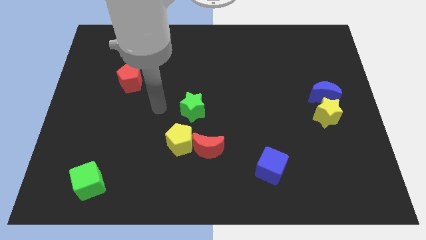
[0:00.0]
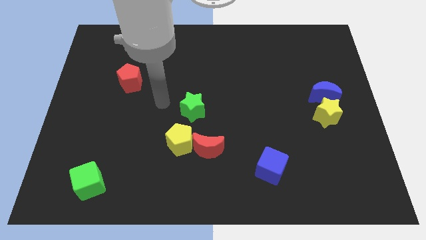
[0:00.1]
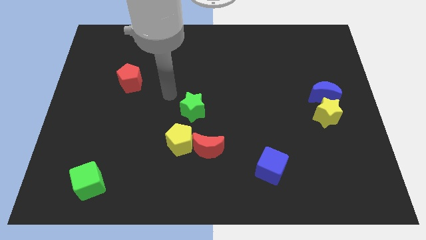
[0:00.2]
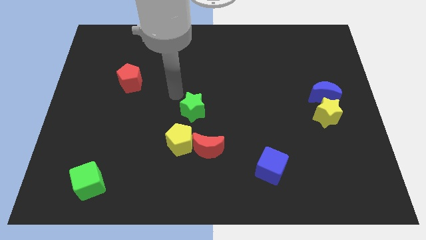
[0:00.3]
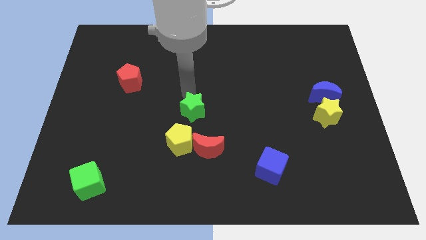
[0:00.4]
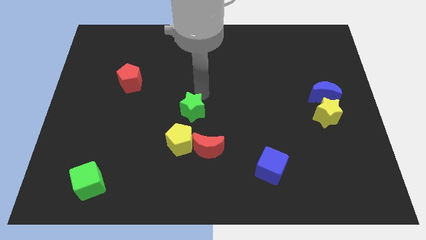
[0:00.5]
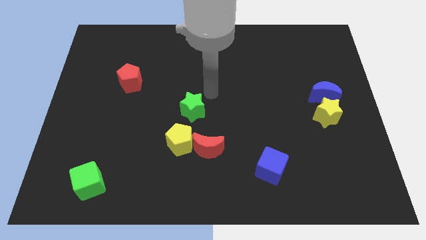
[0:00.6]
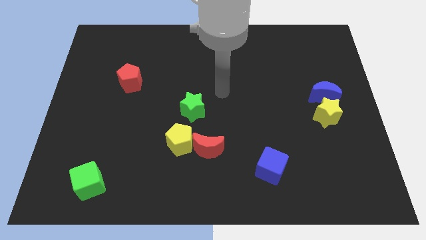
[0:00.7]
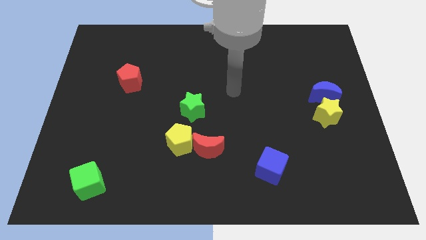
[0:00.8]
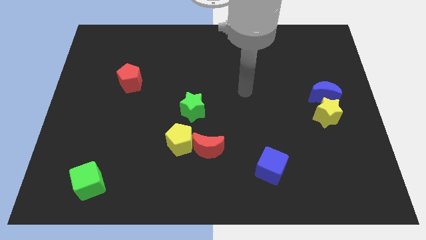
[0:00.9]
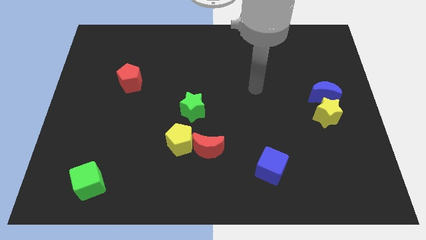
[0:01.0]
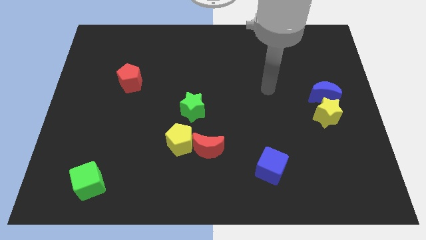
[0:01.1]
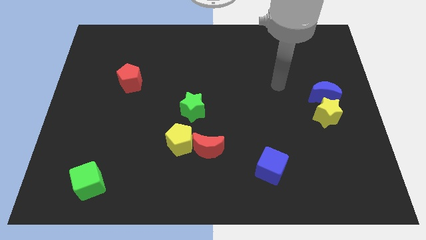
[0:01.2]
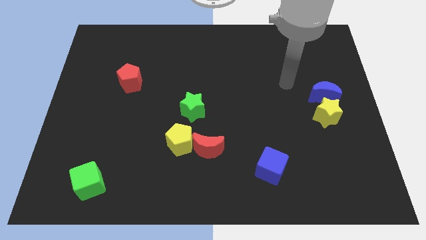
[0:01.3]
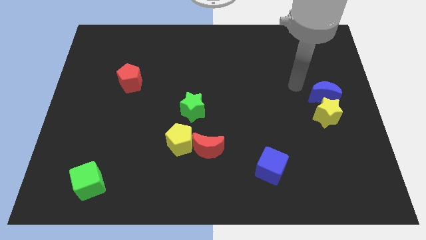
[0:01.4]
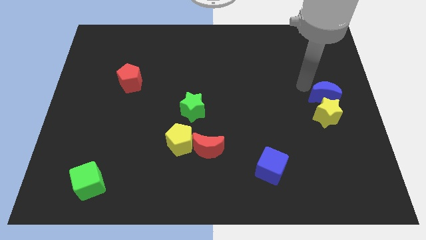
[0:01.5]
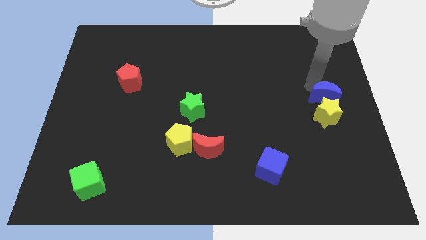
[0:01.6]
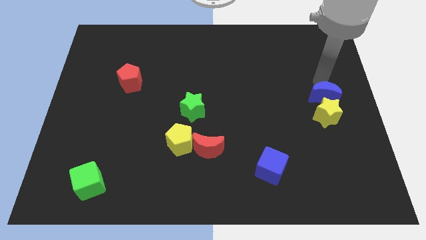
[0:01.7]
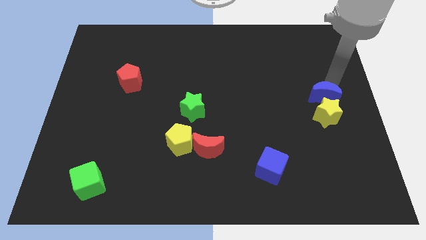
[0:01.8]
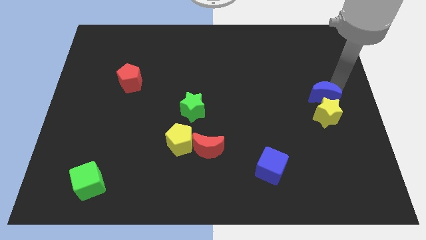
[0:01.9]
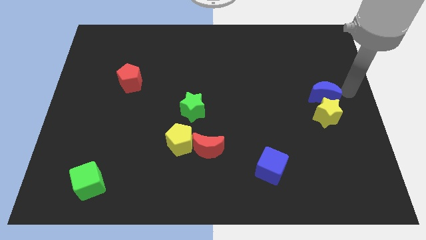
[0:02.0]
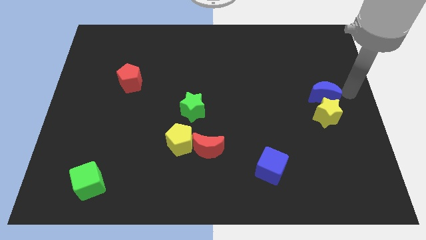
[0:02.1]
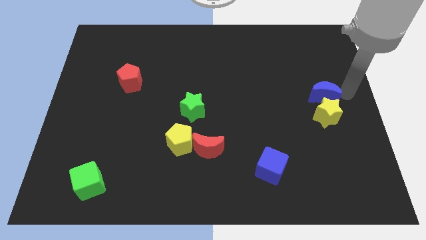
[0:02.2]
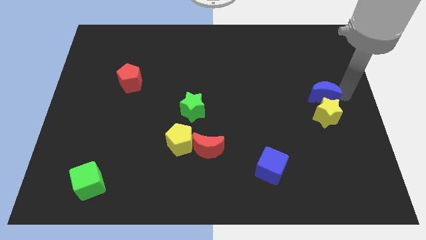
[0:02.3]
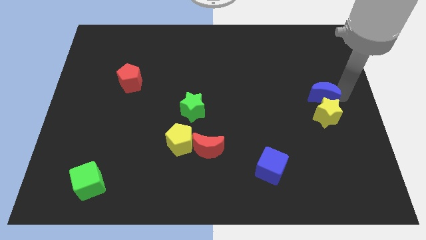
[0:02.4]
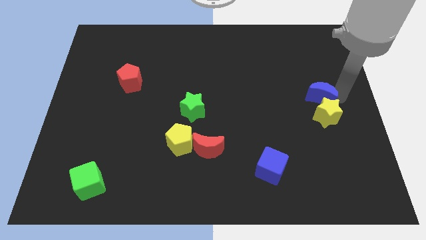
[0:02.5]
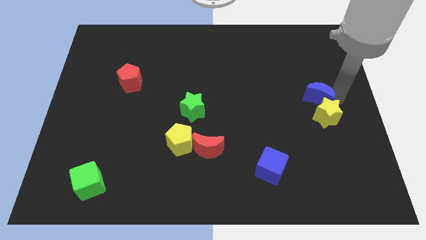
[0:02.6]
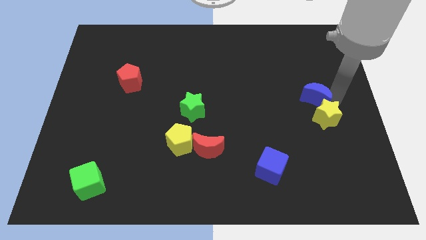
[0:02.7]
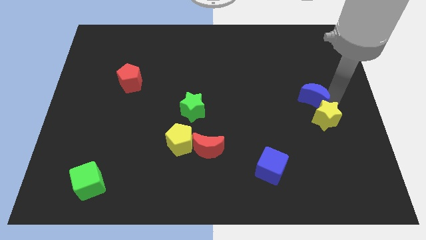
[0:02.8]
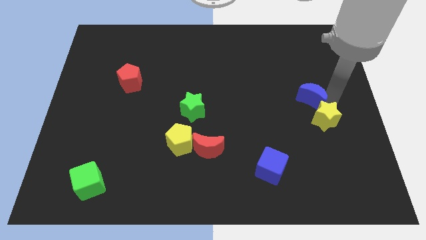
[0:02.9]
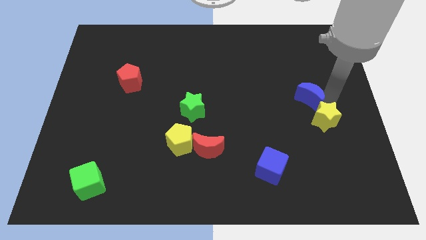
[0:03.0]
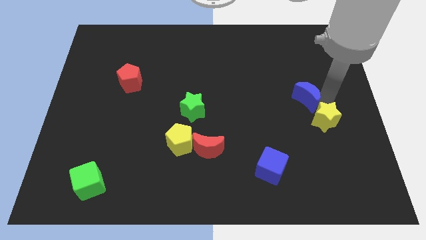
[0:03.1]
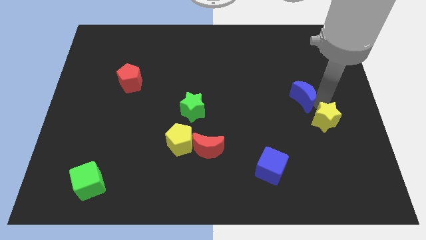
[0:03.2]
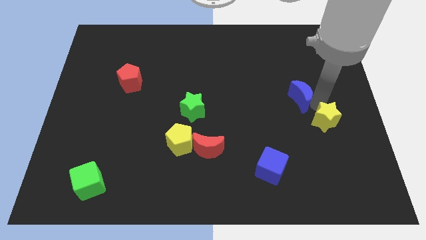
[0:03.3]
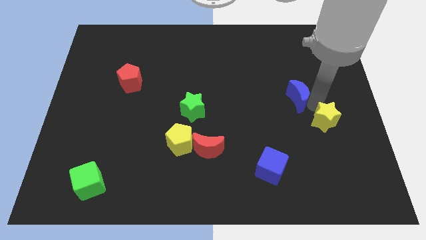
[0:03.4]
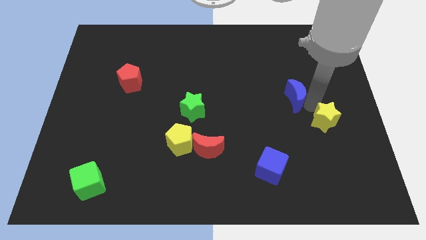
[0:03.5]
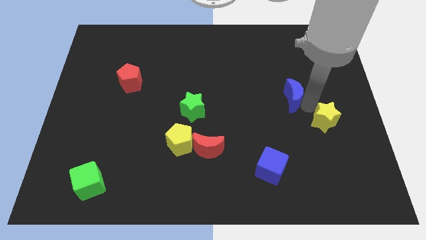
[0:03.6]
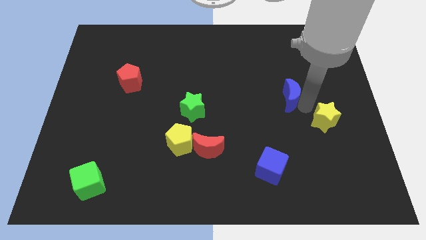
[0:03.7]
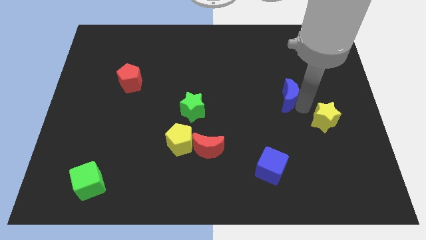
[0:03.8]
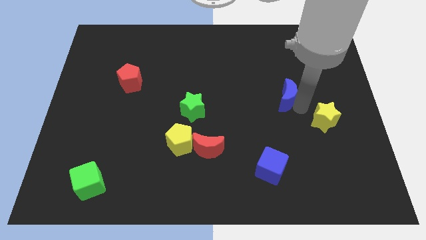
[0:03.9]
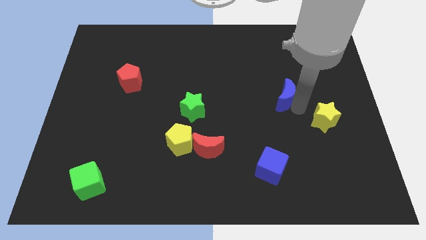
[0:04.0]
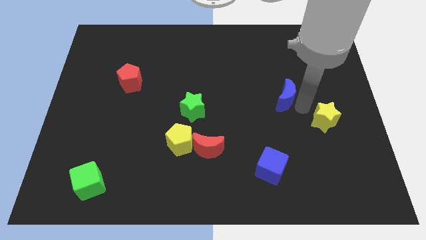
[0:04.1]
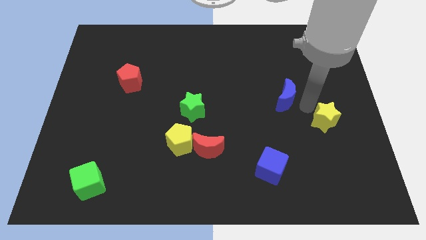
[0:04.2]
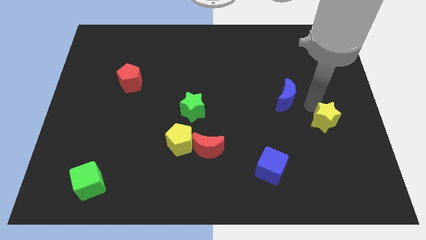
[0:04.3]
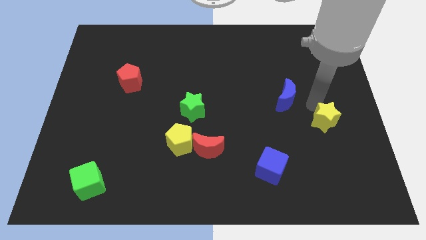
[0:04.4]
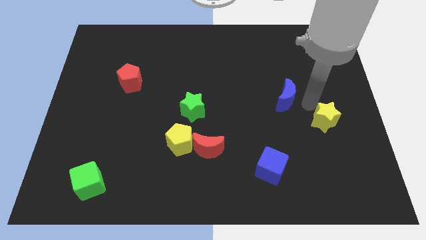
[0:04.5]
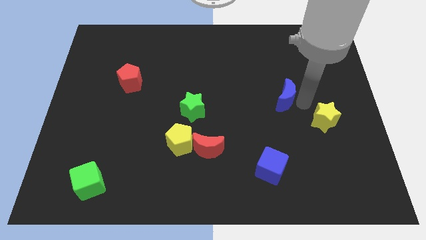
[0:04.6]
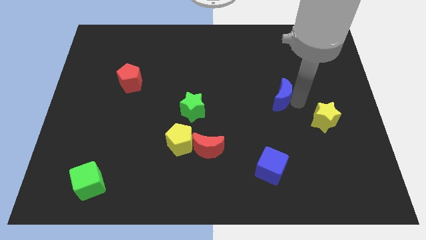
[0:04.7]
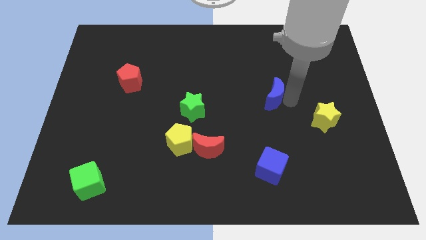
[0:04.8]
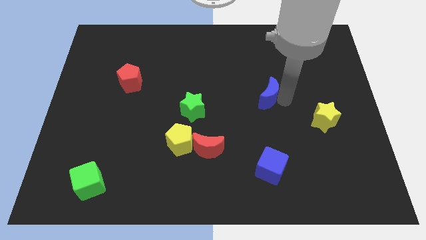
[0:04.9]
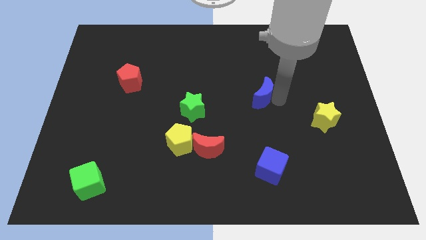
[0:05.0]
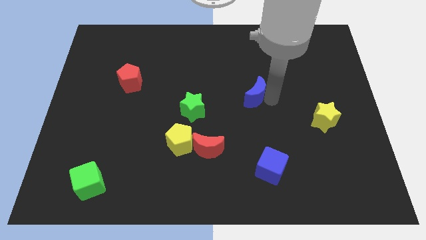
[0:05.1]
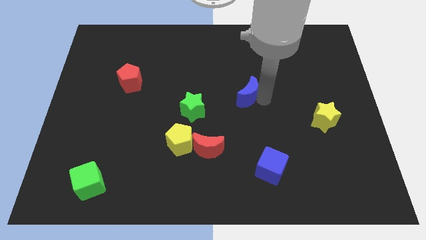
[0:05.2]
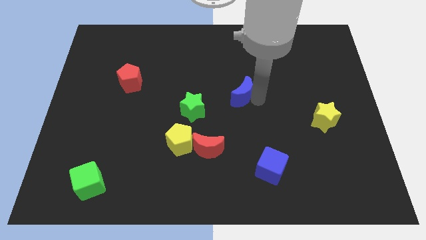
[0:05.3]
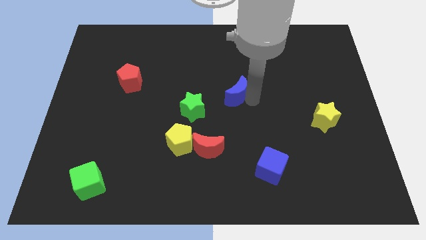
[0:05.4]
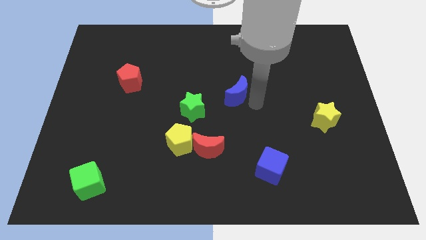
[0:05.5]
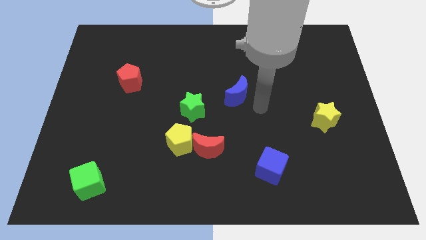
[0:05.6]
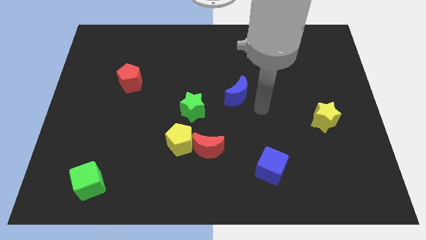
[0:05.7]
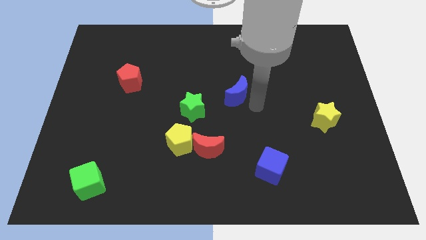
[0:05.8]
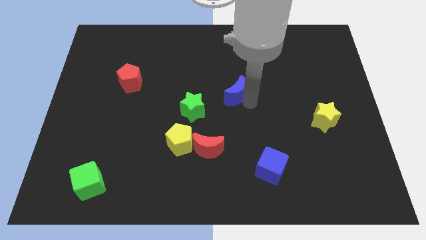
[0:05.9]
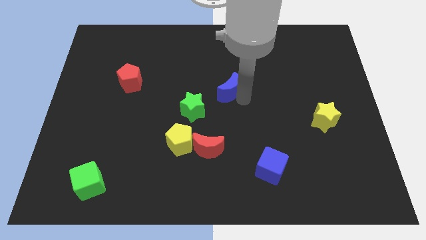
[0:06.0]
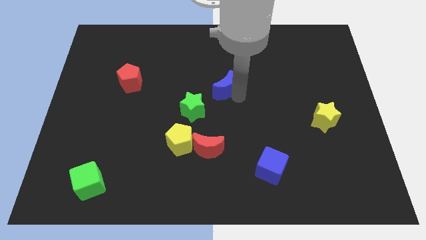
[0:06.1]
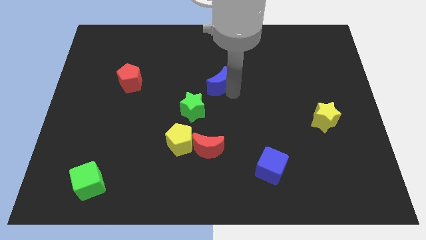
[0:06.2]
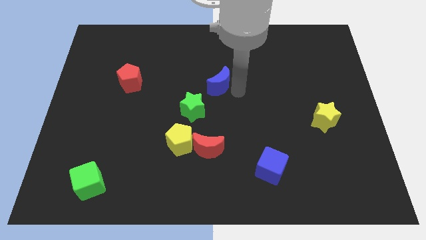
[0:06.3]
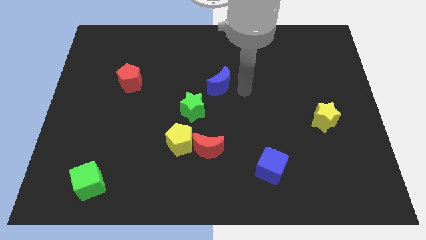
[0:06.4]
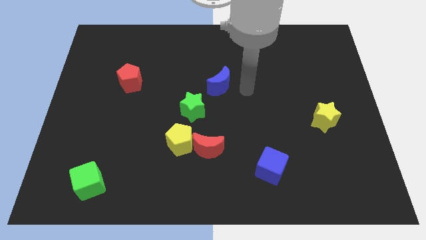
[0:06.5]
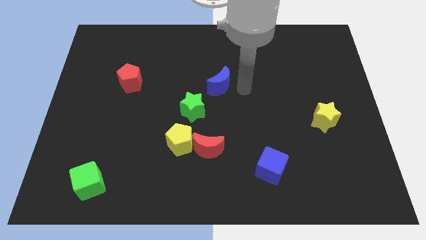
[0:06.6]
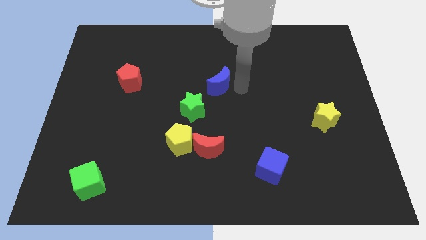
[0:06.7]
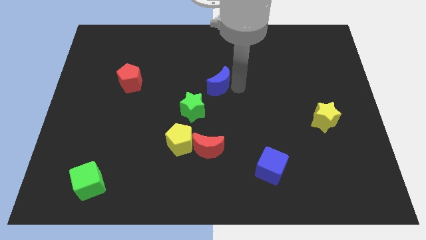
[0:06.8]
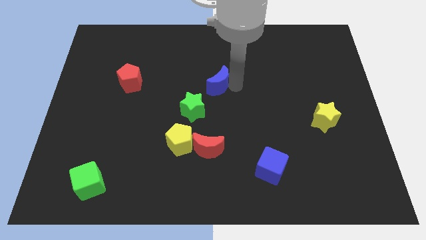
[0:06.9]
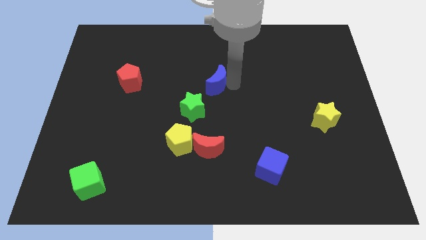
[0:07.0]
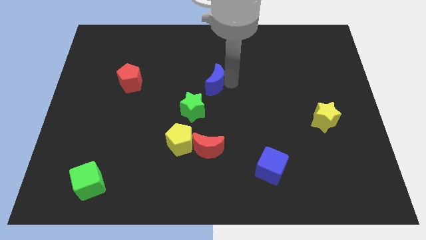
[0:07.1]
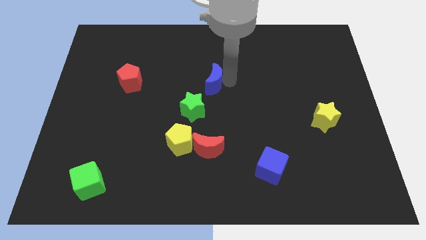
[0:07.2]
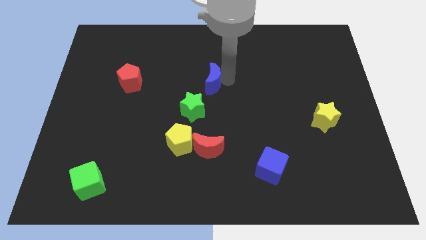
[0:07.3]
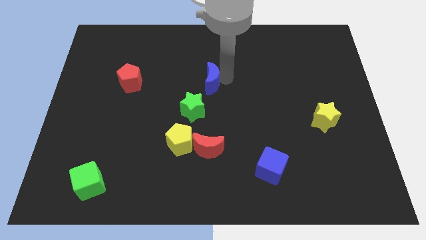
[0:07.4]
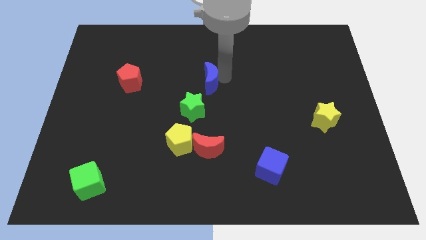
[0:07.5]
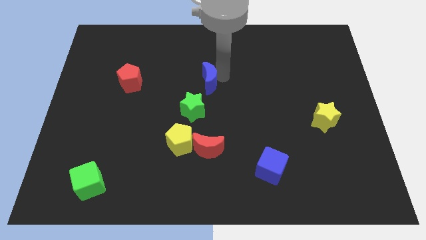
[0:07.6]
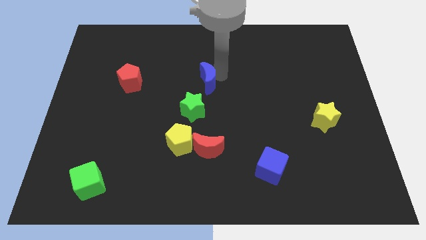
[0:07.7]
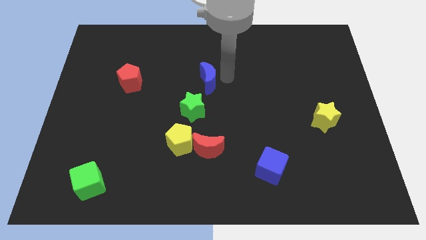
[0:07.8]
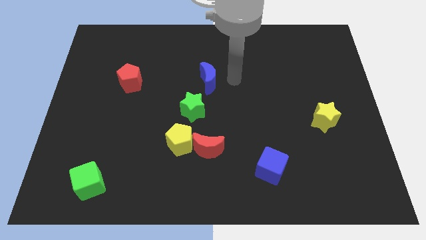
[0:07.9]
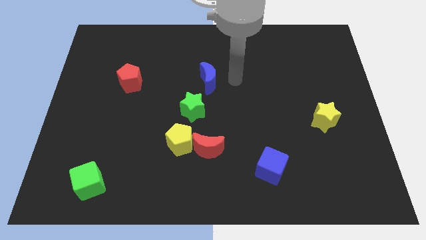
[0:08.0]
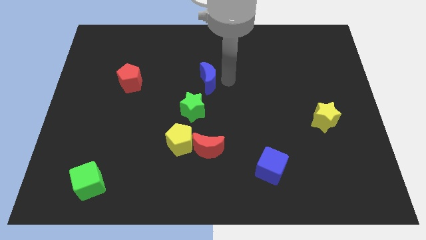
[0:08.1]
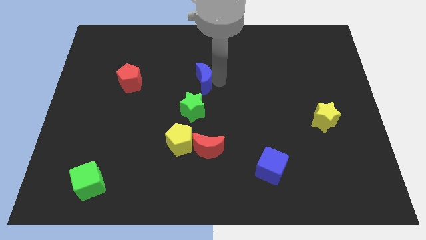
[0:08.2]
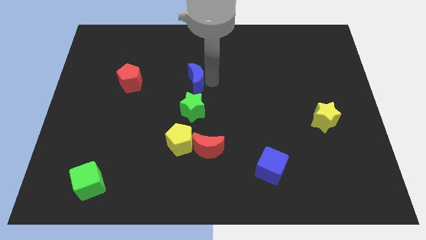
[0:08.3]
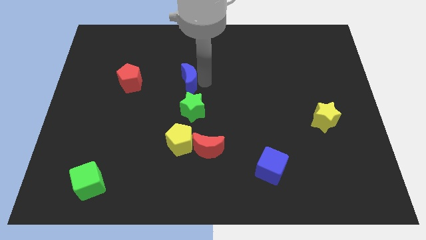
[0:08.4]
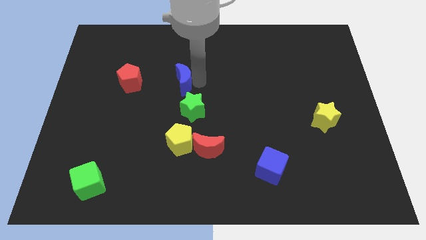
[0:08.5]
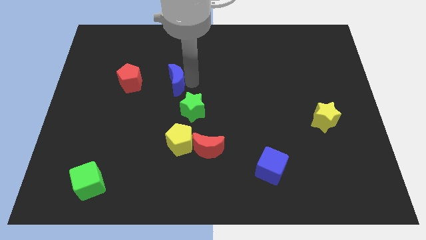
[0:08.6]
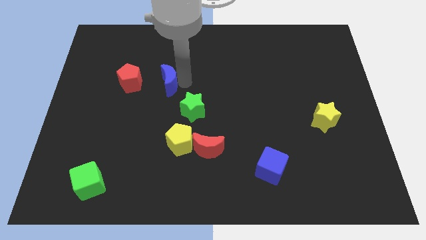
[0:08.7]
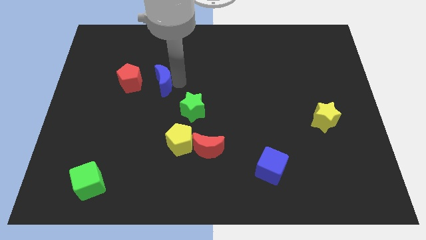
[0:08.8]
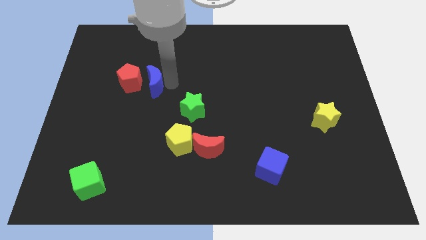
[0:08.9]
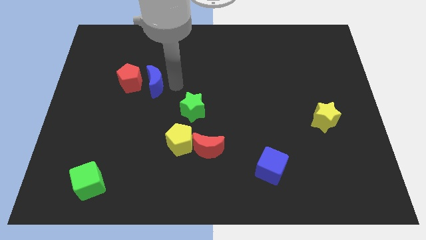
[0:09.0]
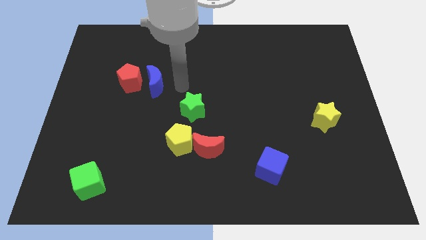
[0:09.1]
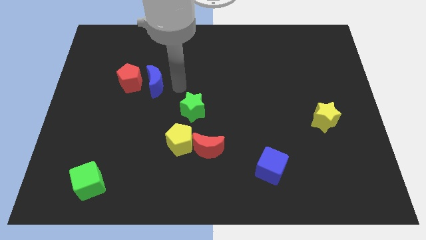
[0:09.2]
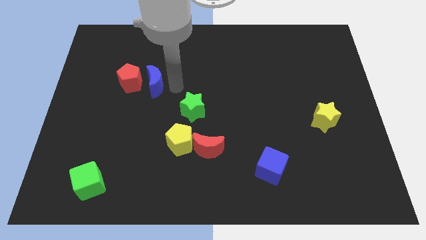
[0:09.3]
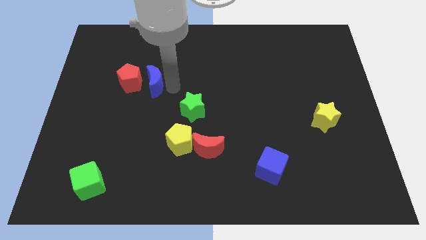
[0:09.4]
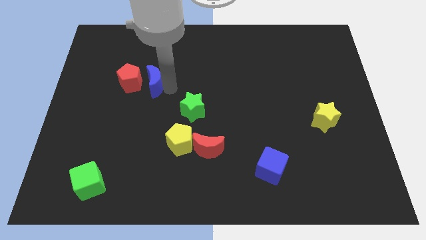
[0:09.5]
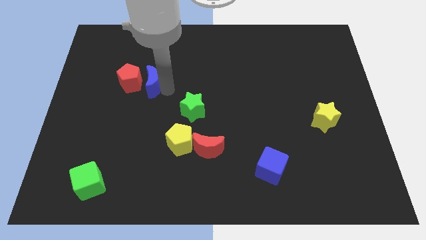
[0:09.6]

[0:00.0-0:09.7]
put the blue moon to the red pentagon
